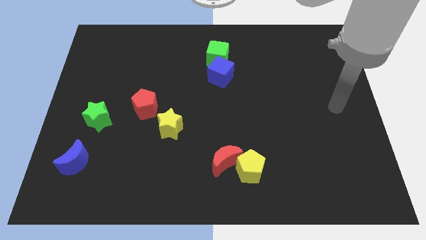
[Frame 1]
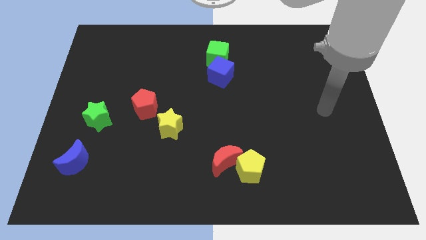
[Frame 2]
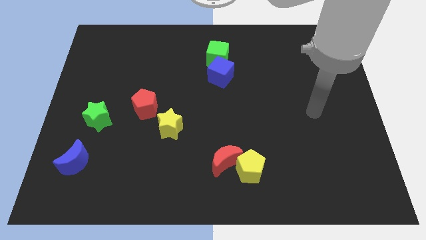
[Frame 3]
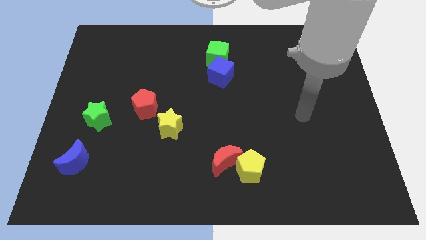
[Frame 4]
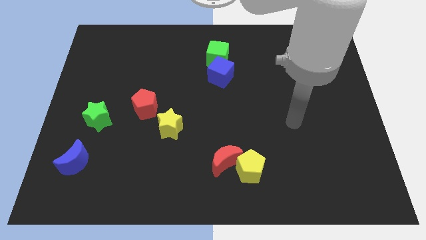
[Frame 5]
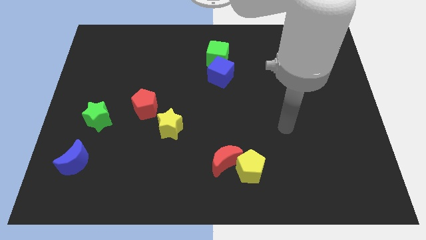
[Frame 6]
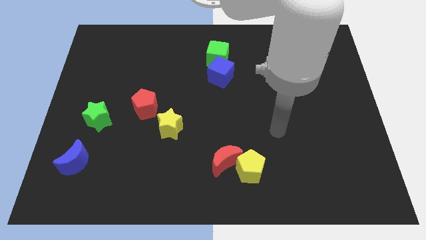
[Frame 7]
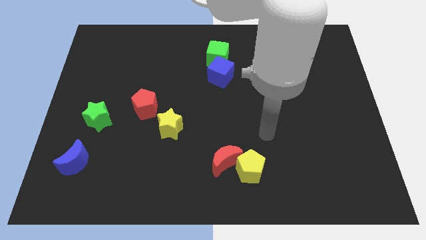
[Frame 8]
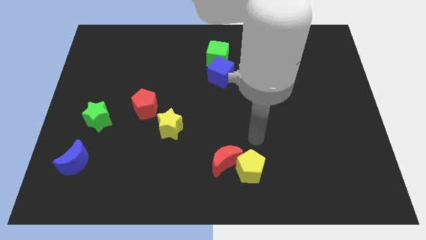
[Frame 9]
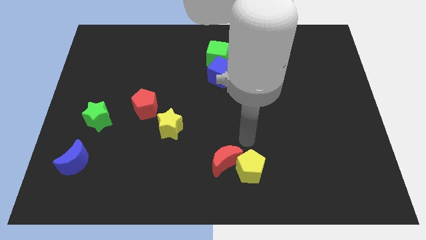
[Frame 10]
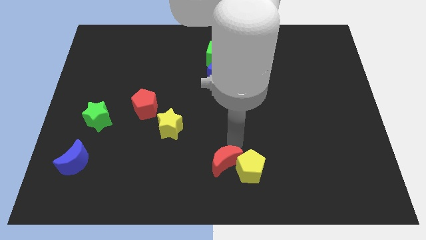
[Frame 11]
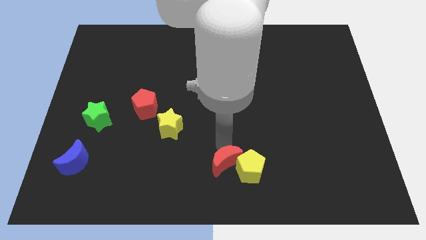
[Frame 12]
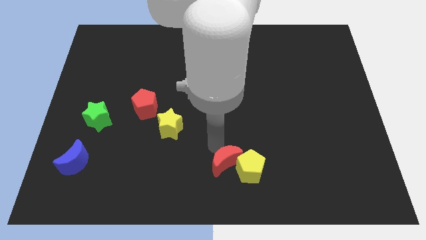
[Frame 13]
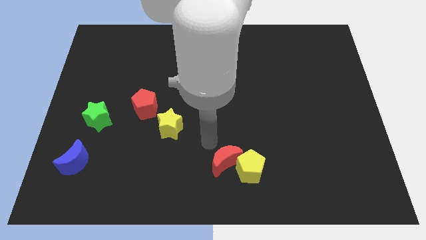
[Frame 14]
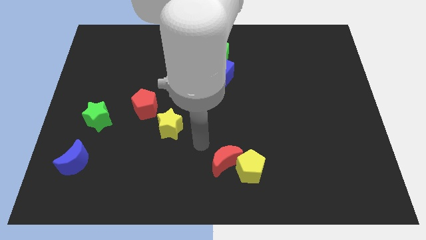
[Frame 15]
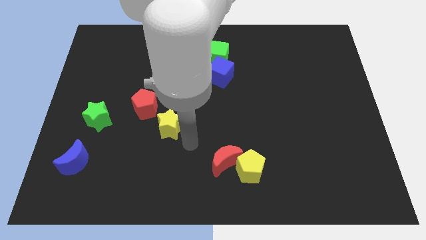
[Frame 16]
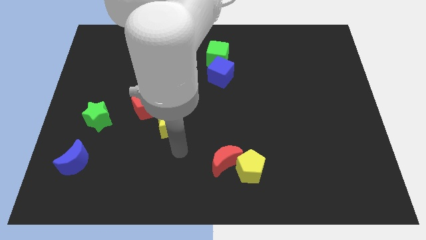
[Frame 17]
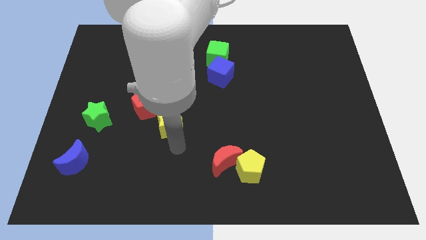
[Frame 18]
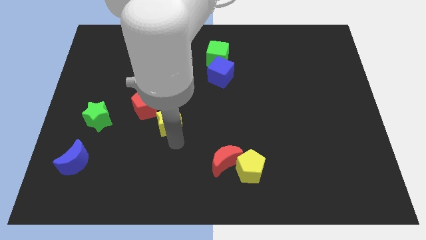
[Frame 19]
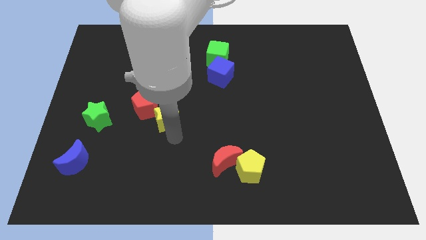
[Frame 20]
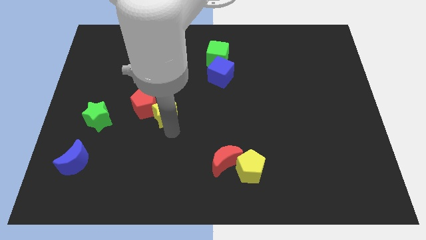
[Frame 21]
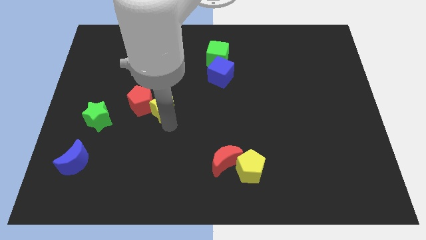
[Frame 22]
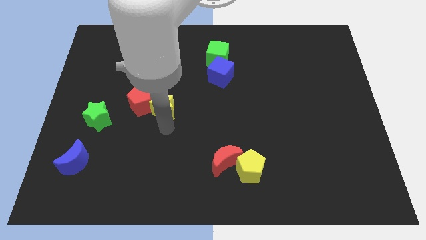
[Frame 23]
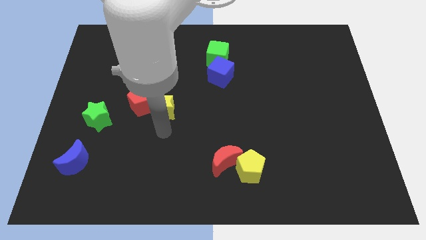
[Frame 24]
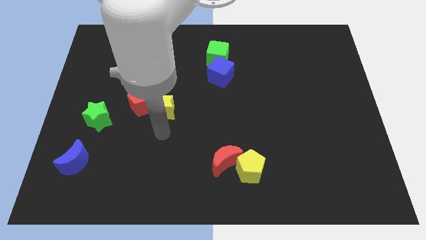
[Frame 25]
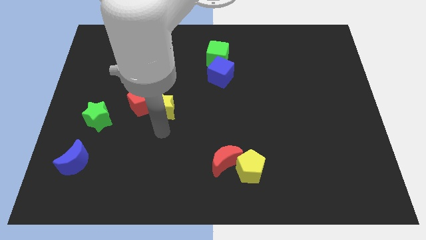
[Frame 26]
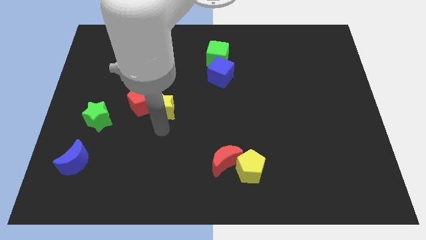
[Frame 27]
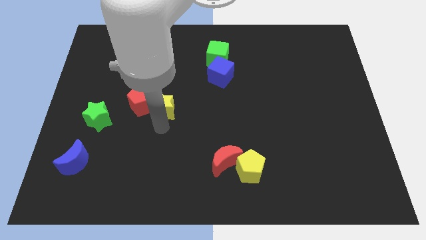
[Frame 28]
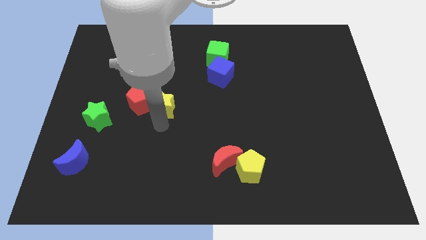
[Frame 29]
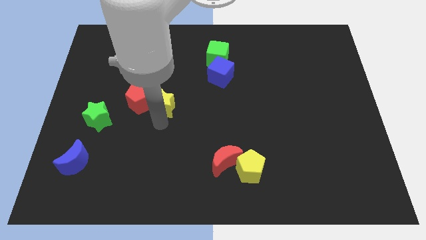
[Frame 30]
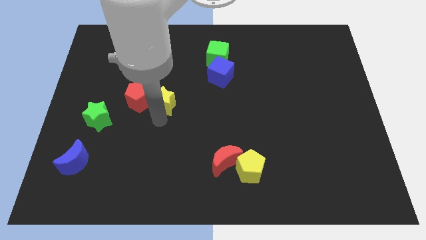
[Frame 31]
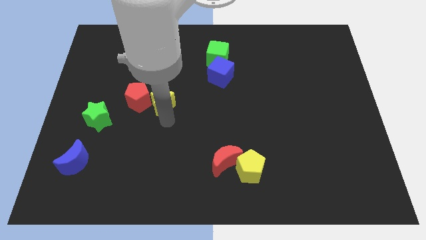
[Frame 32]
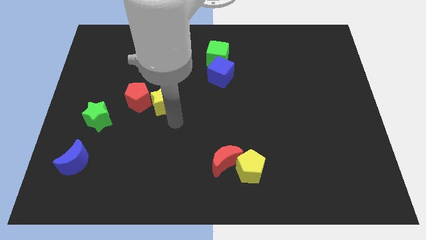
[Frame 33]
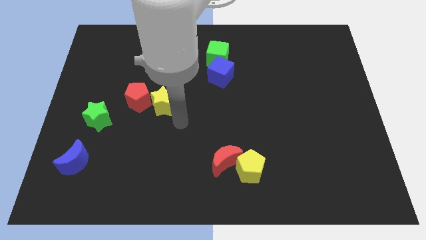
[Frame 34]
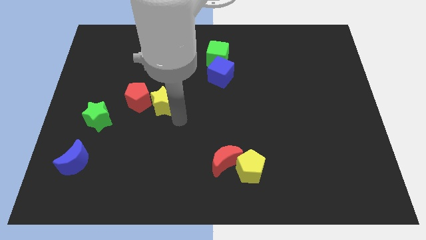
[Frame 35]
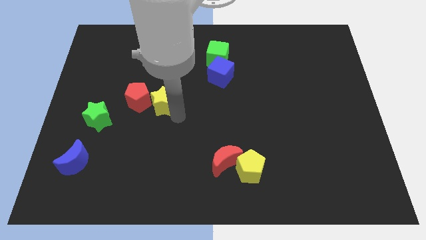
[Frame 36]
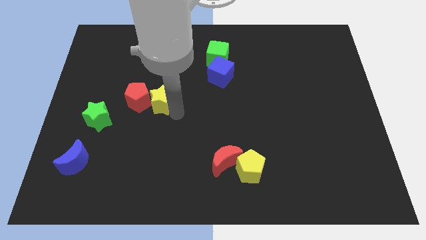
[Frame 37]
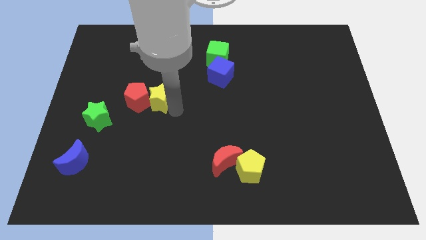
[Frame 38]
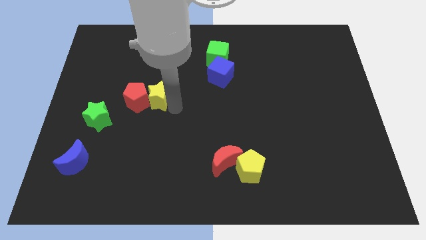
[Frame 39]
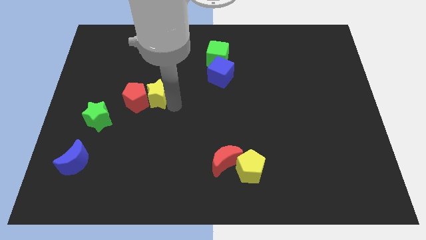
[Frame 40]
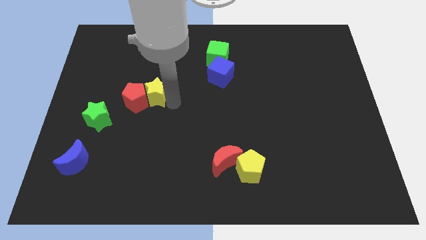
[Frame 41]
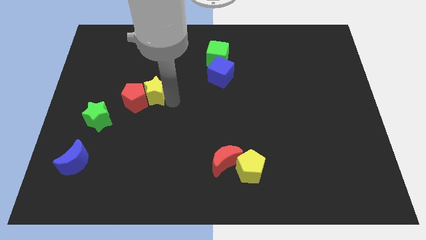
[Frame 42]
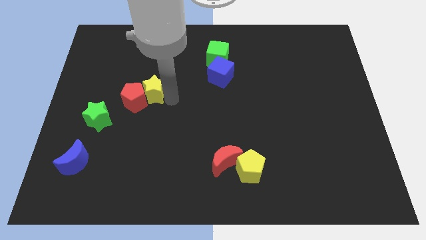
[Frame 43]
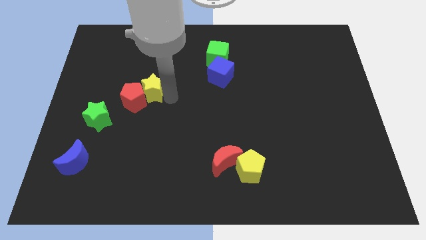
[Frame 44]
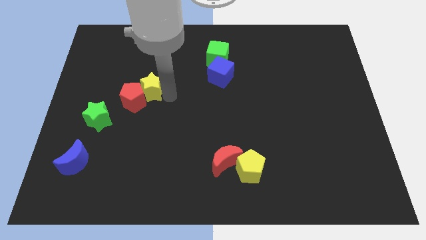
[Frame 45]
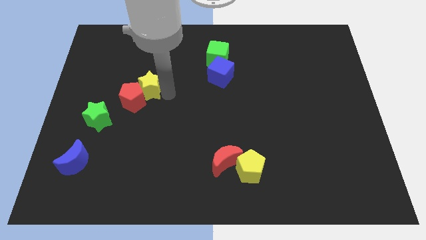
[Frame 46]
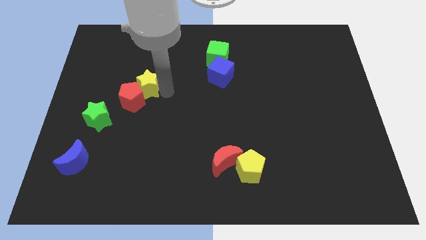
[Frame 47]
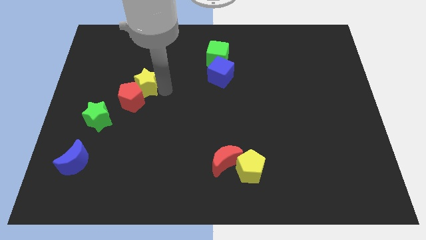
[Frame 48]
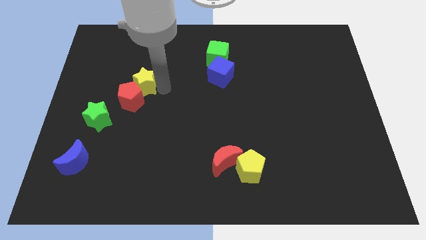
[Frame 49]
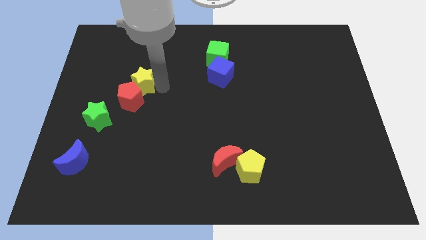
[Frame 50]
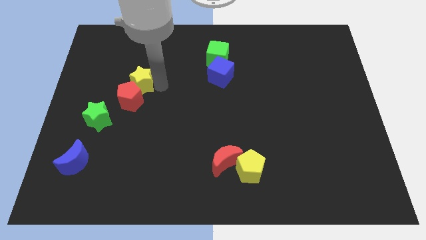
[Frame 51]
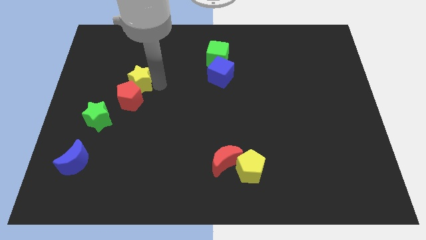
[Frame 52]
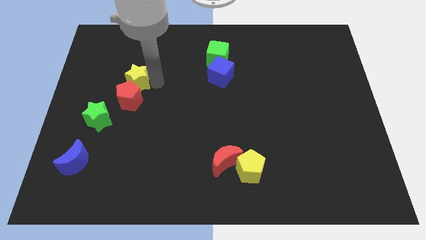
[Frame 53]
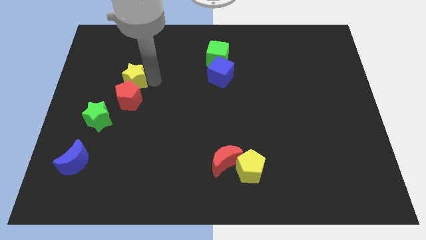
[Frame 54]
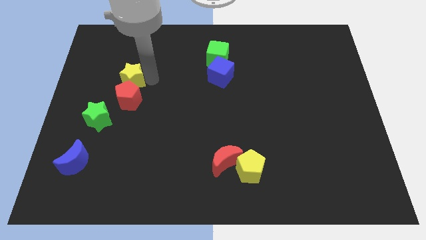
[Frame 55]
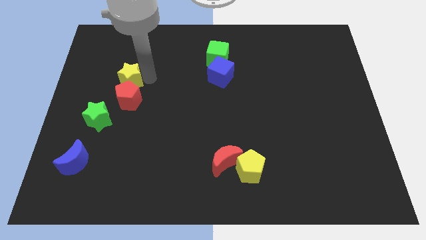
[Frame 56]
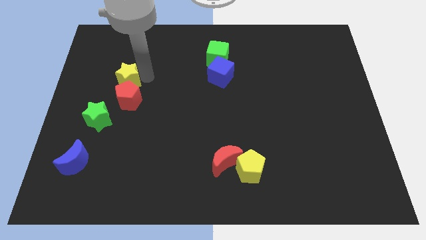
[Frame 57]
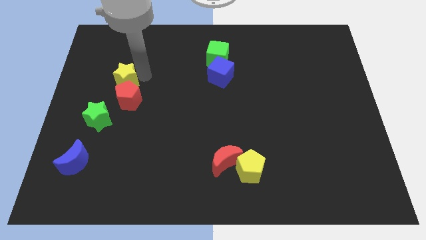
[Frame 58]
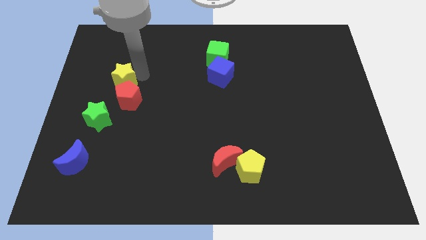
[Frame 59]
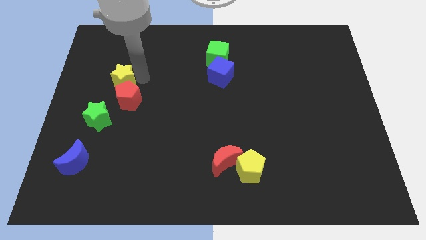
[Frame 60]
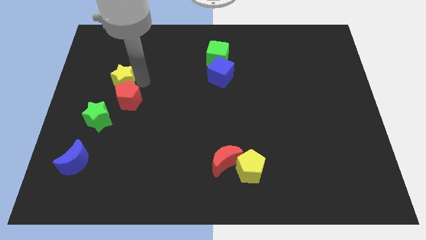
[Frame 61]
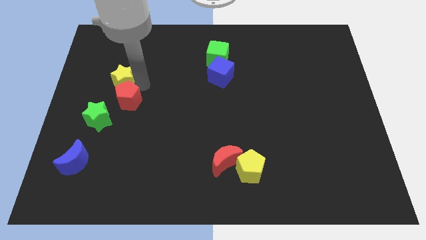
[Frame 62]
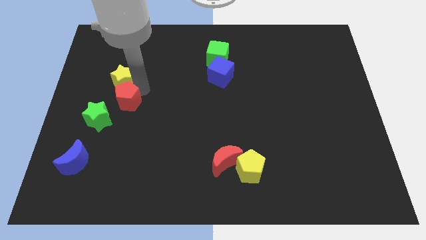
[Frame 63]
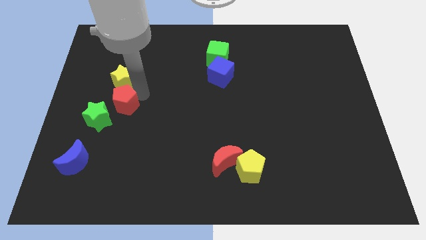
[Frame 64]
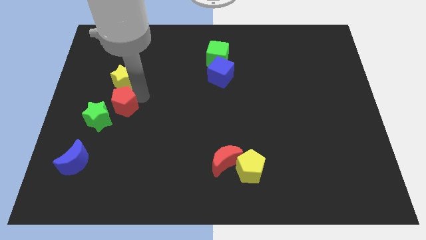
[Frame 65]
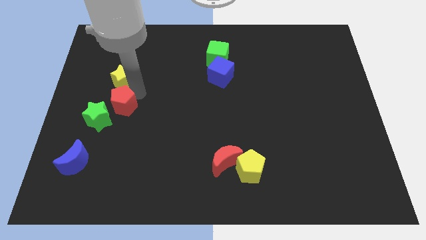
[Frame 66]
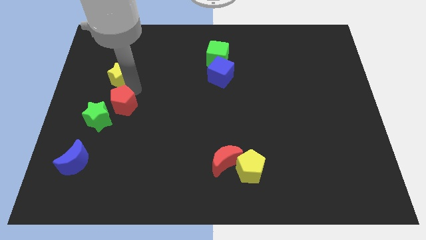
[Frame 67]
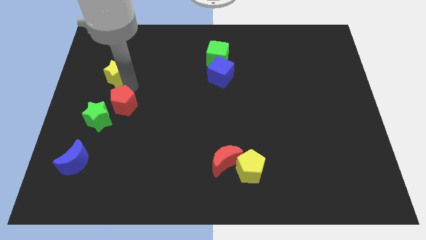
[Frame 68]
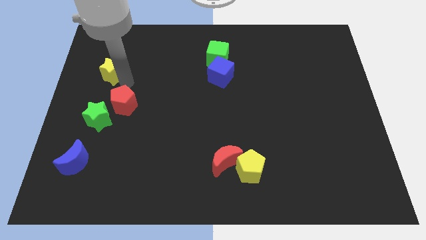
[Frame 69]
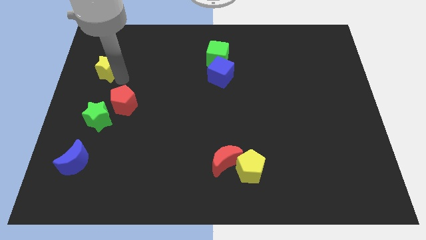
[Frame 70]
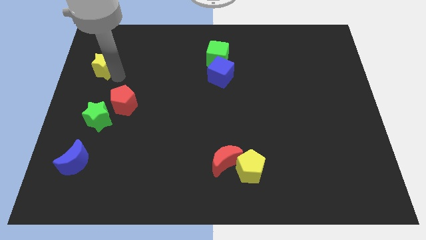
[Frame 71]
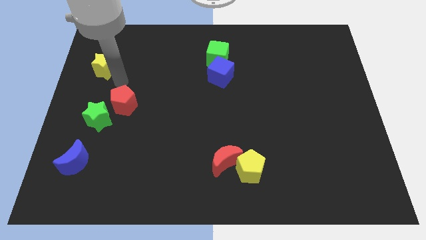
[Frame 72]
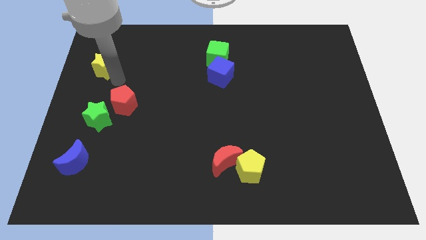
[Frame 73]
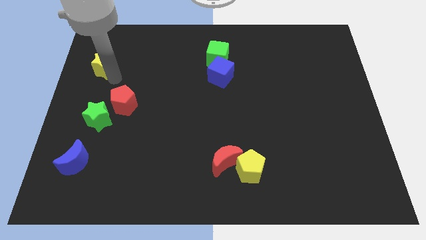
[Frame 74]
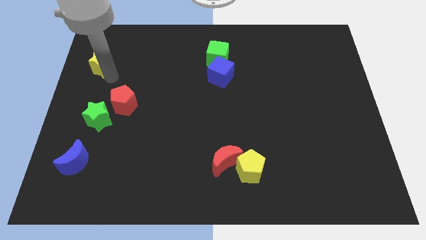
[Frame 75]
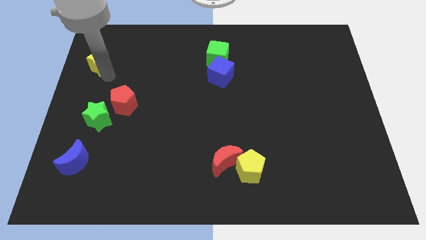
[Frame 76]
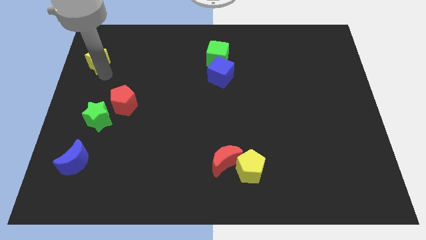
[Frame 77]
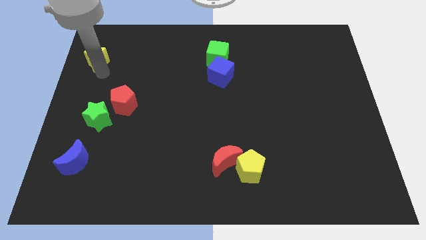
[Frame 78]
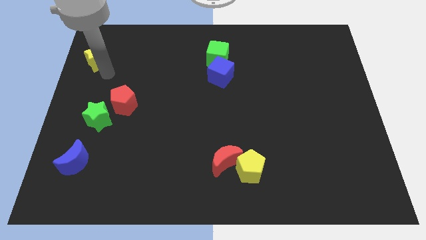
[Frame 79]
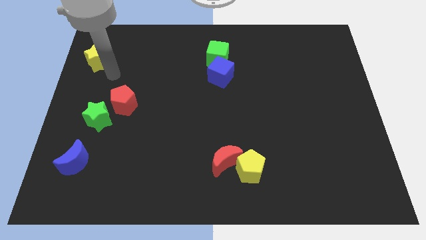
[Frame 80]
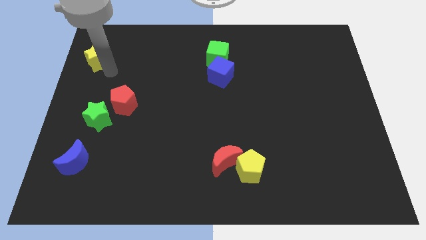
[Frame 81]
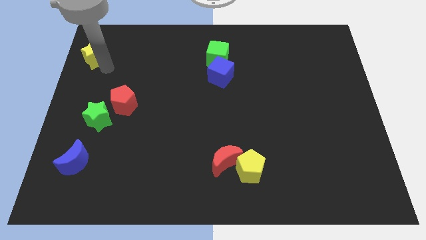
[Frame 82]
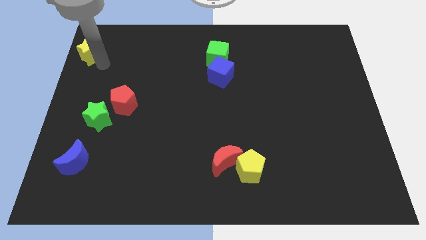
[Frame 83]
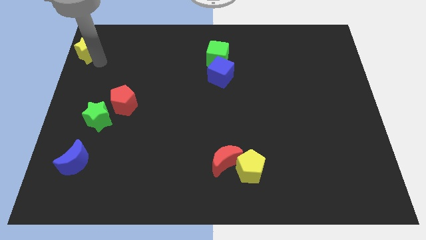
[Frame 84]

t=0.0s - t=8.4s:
put the yellow star to the upper left corner
